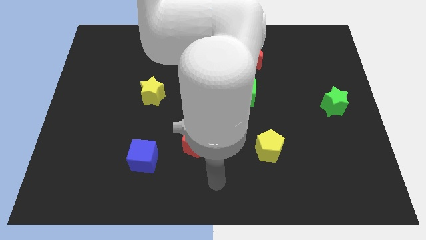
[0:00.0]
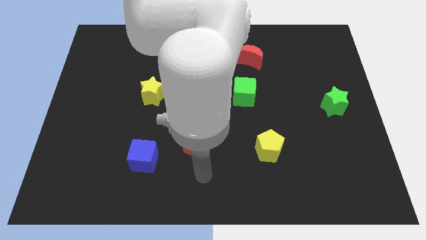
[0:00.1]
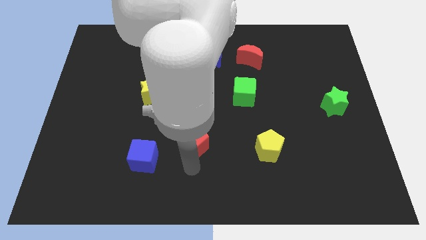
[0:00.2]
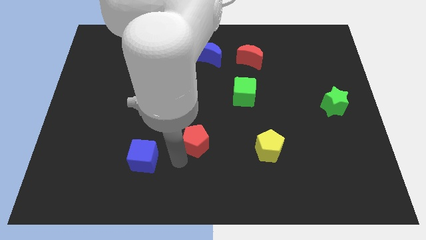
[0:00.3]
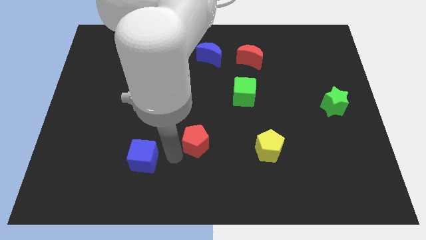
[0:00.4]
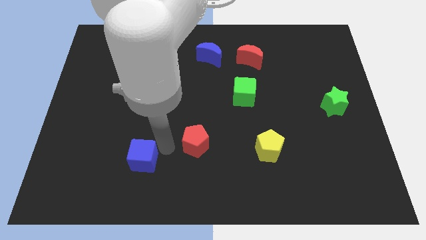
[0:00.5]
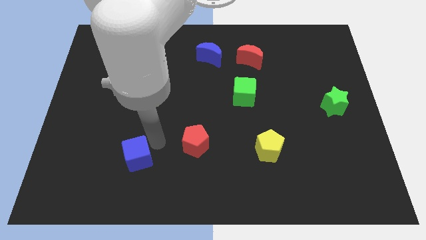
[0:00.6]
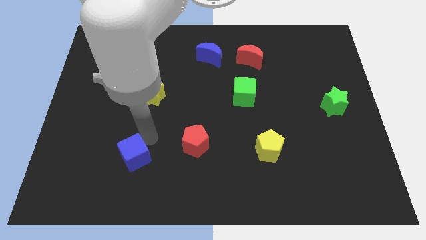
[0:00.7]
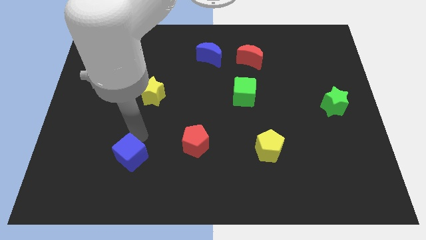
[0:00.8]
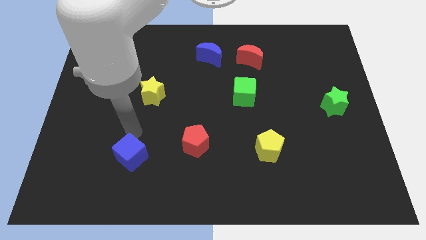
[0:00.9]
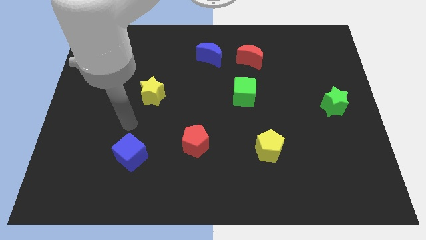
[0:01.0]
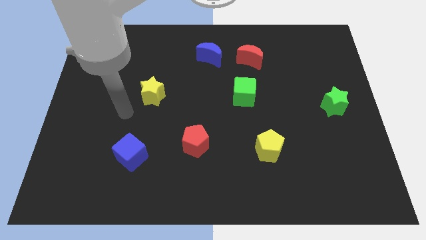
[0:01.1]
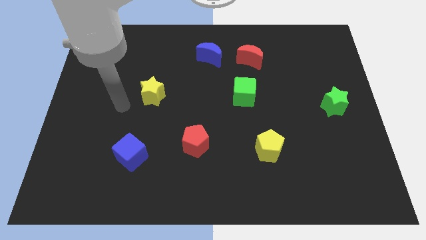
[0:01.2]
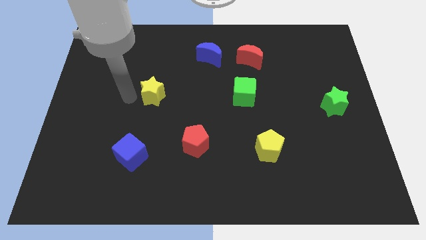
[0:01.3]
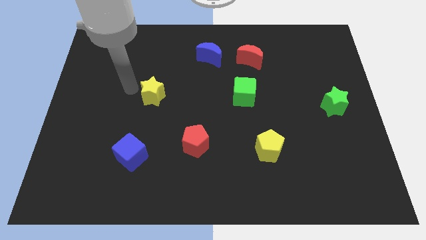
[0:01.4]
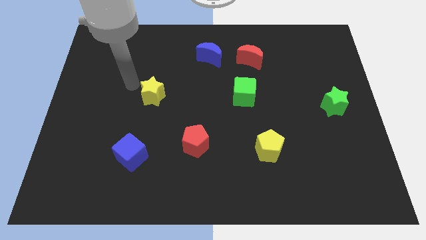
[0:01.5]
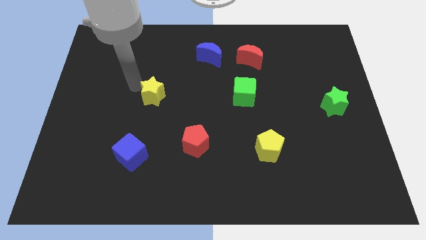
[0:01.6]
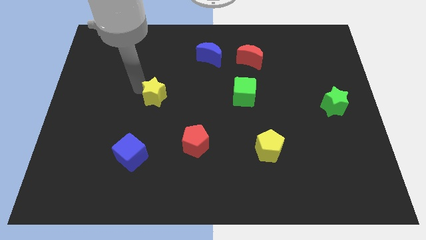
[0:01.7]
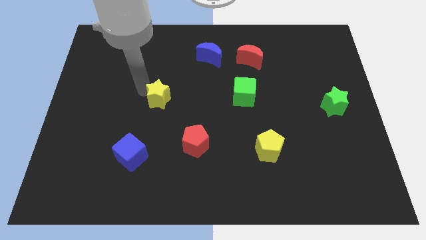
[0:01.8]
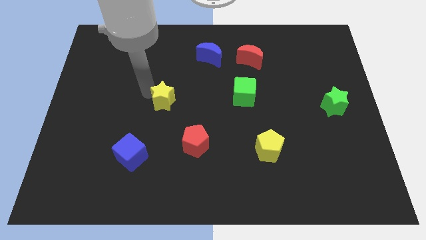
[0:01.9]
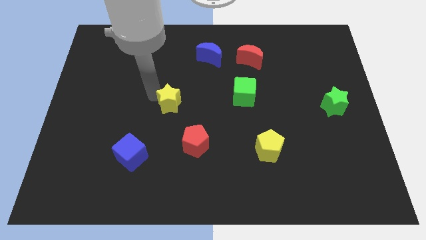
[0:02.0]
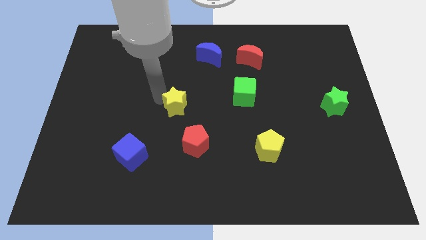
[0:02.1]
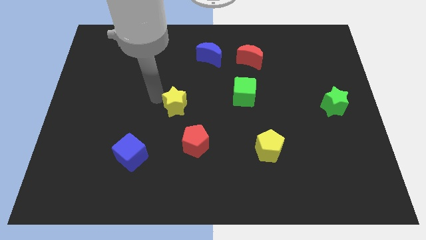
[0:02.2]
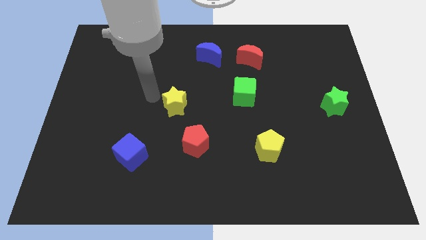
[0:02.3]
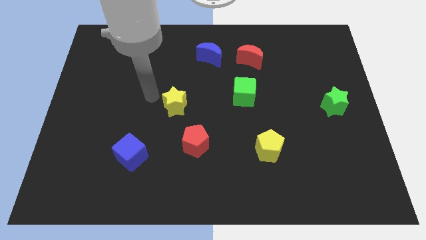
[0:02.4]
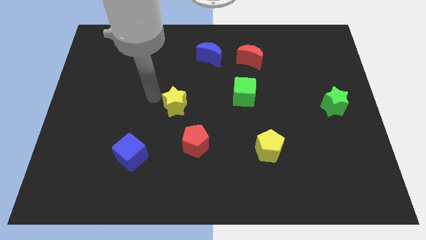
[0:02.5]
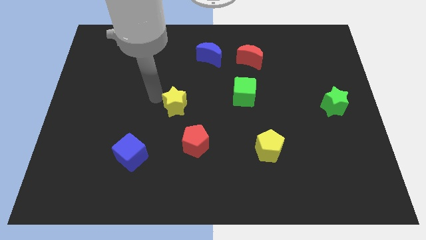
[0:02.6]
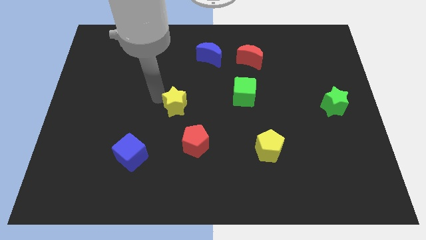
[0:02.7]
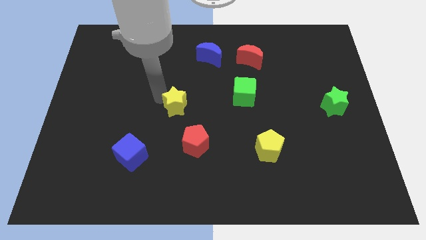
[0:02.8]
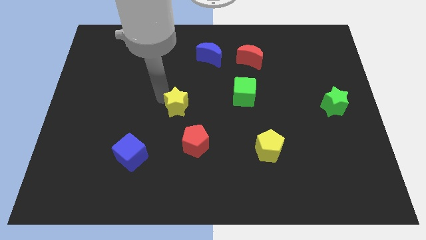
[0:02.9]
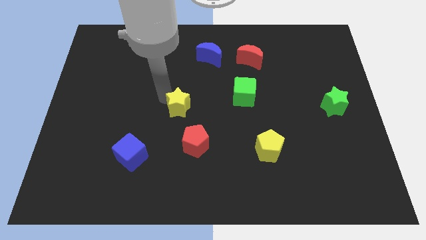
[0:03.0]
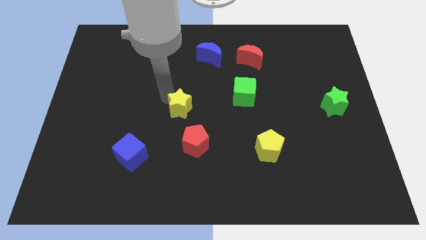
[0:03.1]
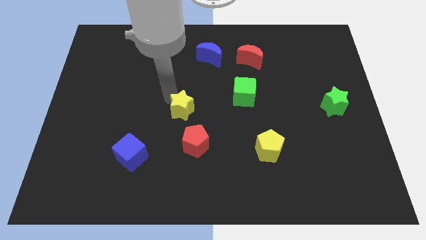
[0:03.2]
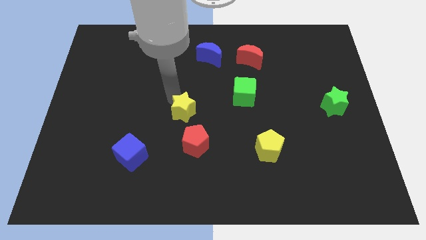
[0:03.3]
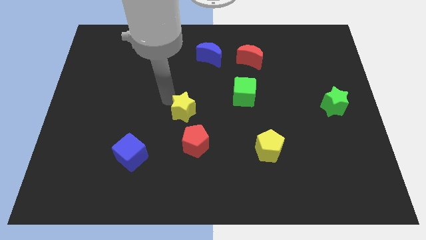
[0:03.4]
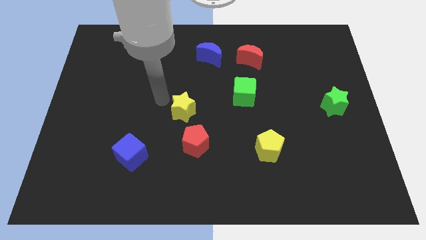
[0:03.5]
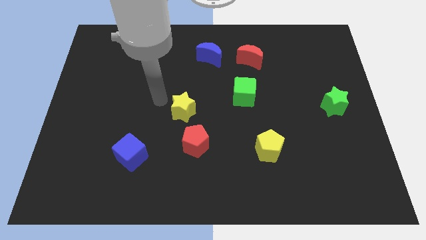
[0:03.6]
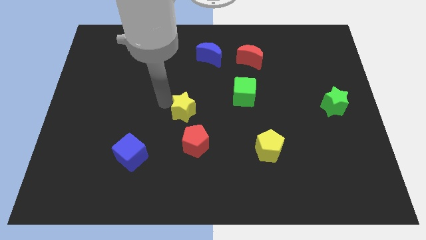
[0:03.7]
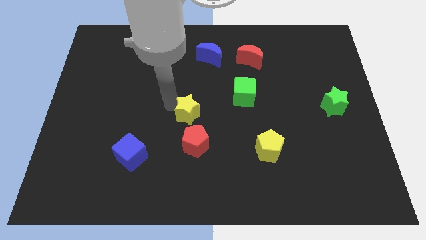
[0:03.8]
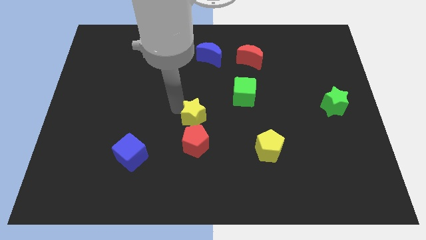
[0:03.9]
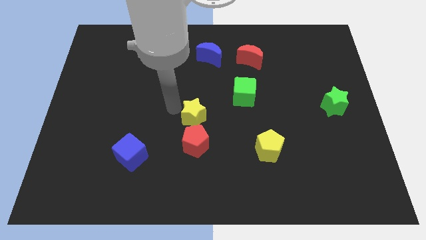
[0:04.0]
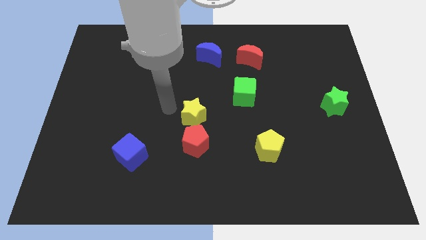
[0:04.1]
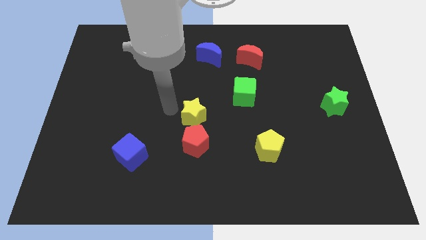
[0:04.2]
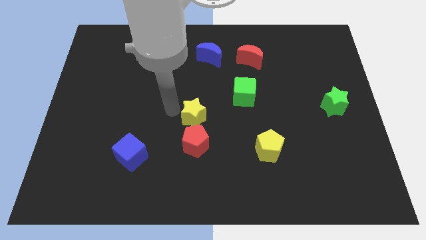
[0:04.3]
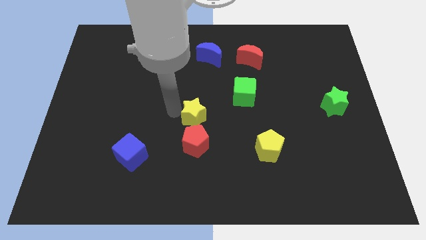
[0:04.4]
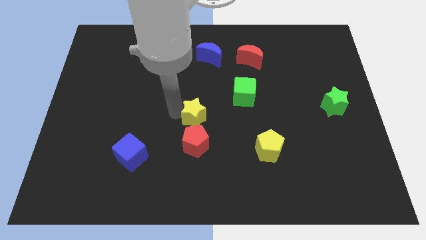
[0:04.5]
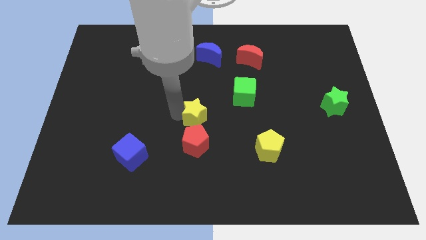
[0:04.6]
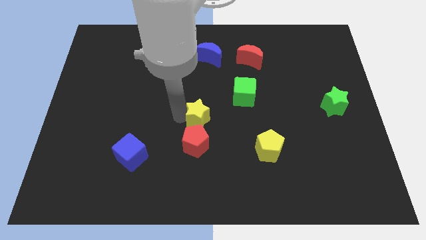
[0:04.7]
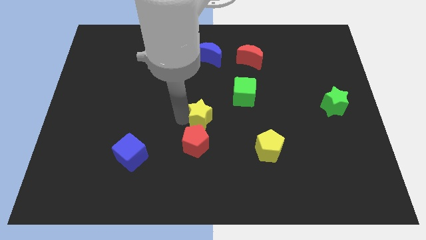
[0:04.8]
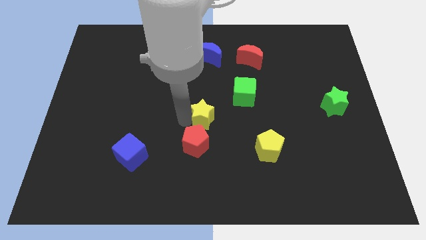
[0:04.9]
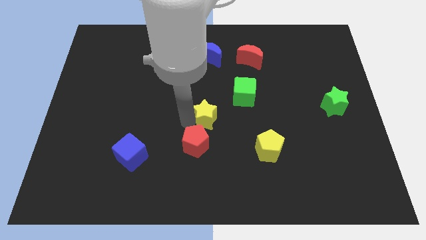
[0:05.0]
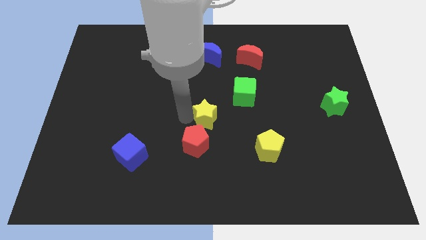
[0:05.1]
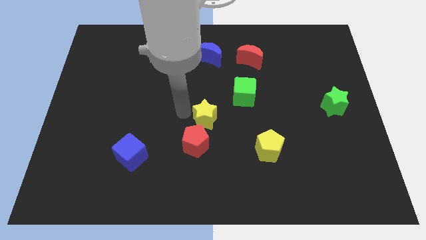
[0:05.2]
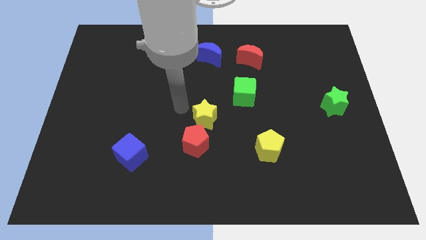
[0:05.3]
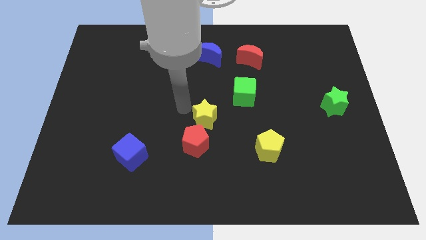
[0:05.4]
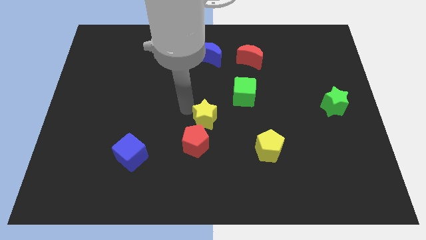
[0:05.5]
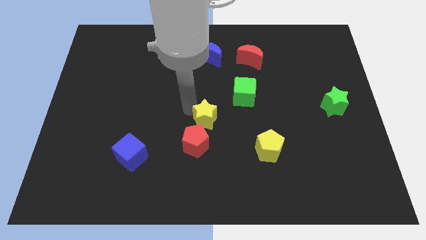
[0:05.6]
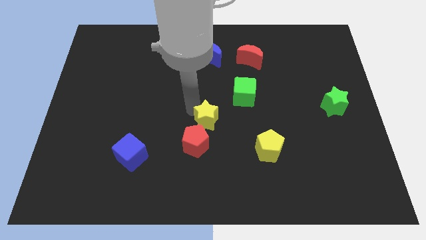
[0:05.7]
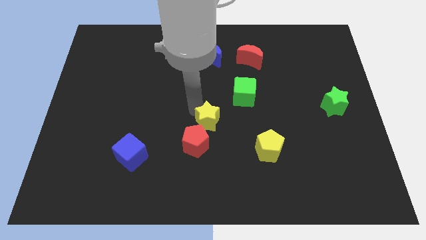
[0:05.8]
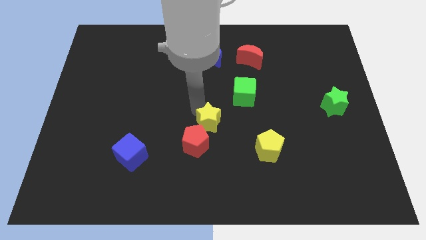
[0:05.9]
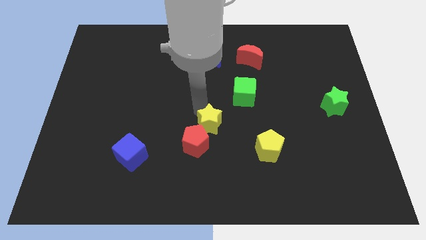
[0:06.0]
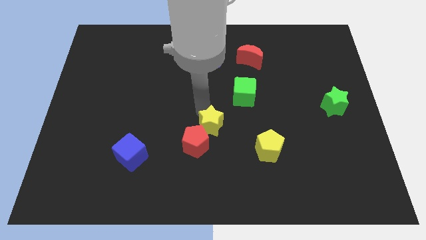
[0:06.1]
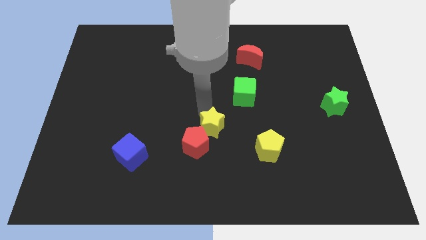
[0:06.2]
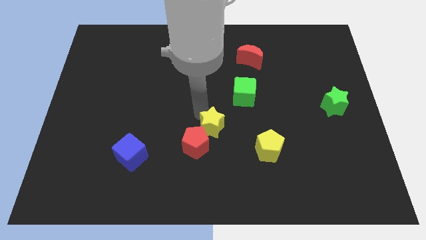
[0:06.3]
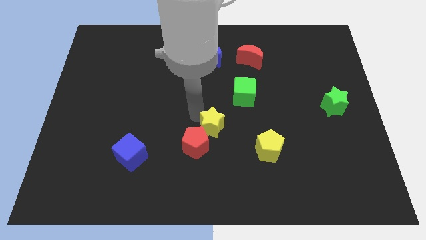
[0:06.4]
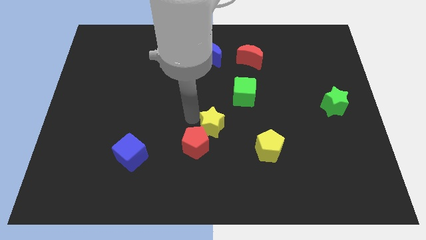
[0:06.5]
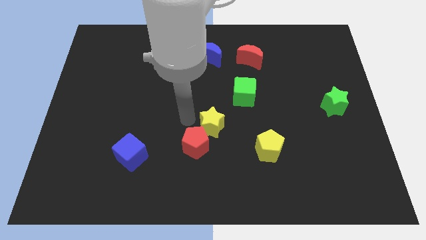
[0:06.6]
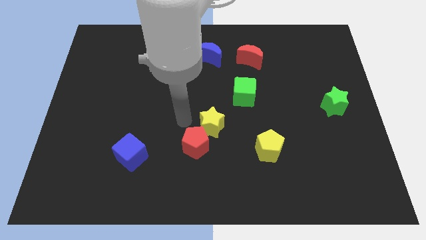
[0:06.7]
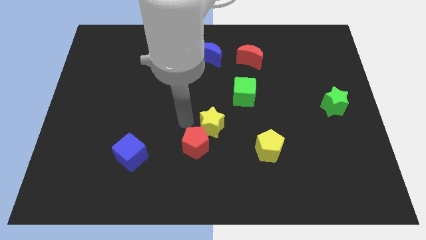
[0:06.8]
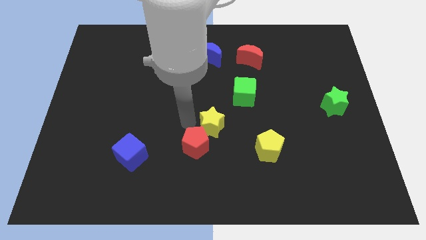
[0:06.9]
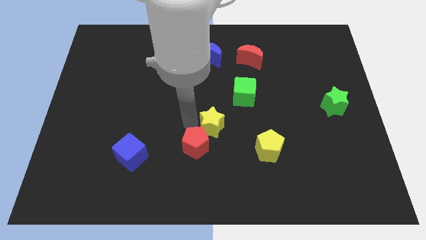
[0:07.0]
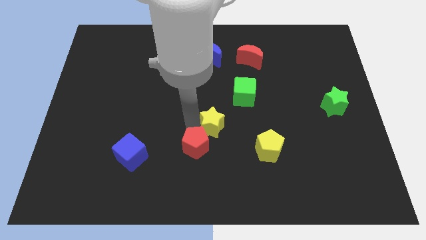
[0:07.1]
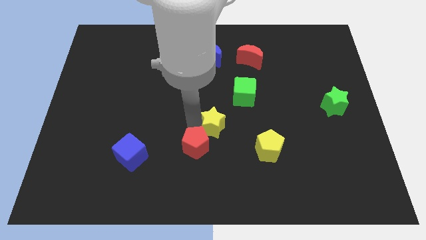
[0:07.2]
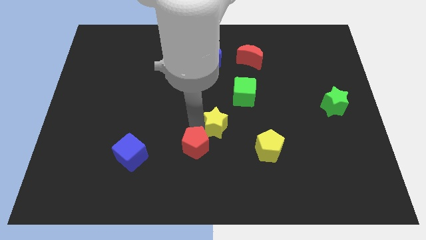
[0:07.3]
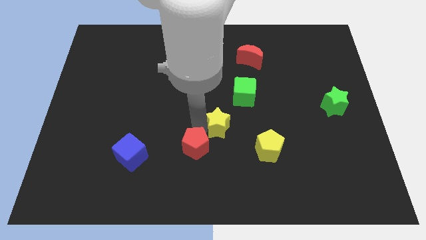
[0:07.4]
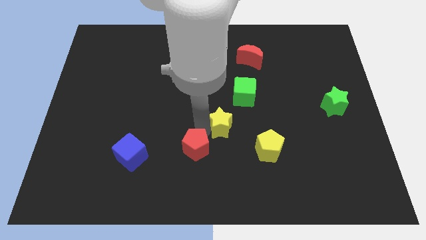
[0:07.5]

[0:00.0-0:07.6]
put the yellow star to the top left side of the yellow pentagon
